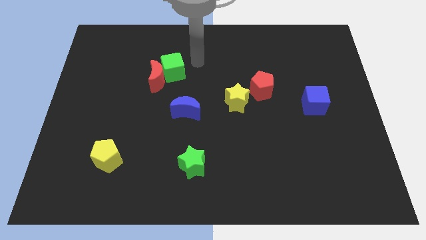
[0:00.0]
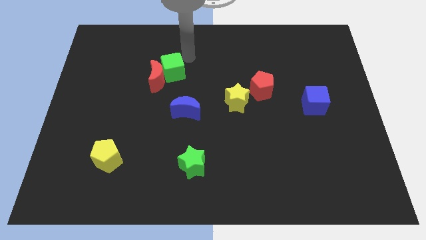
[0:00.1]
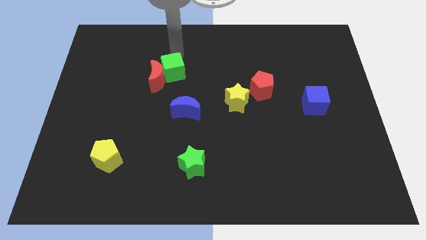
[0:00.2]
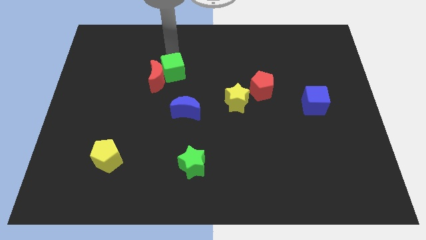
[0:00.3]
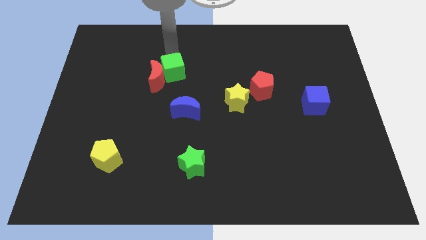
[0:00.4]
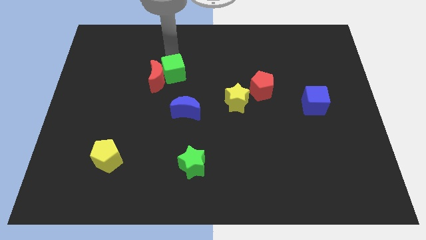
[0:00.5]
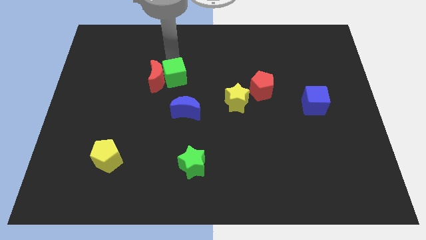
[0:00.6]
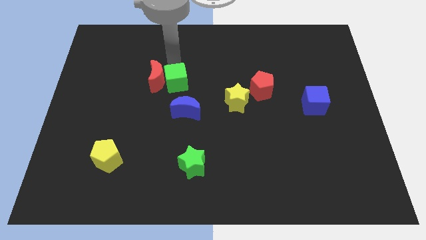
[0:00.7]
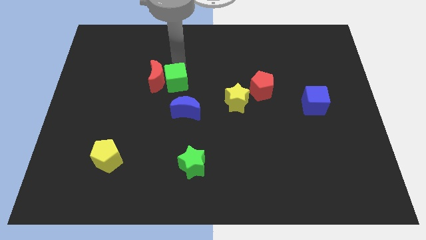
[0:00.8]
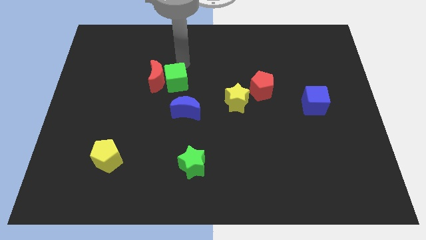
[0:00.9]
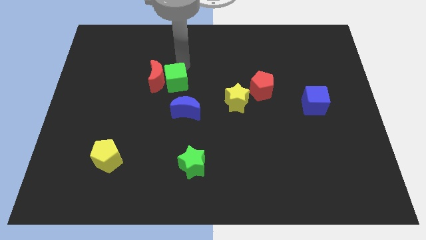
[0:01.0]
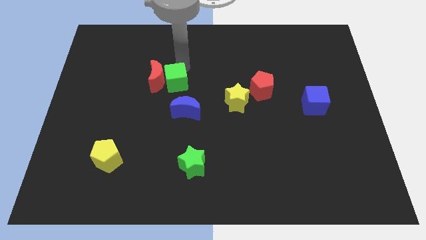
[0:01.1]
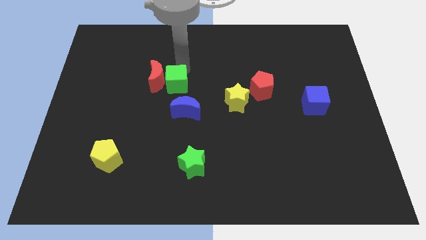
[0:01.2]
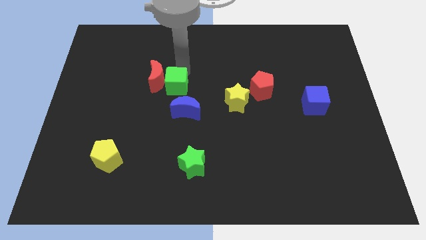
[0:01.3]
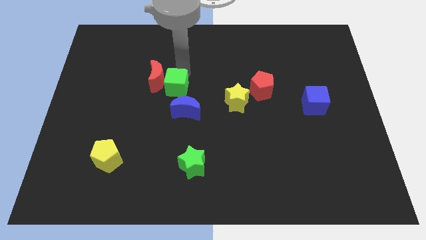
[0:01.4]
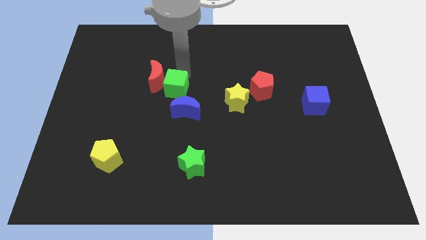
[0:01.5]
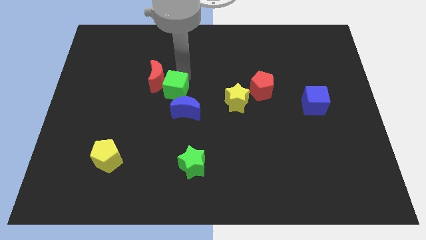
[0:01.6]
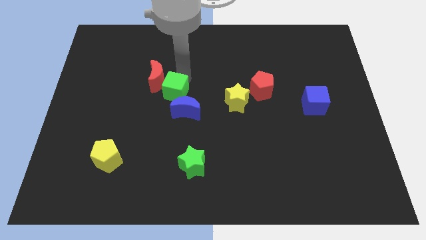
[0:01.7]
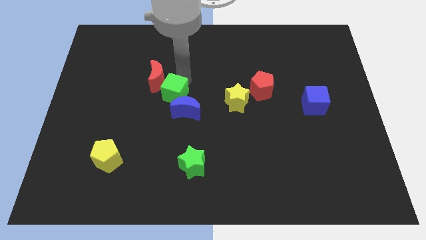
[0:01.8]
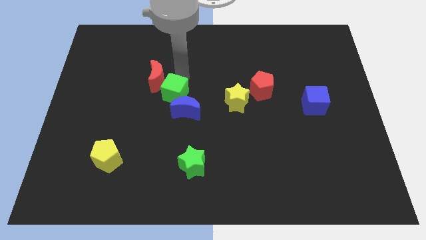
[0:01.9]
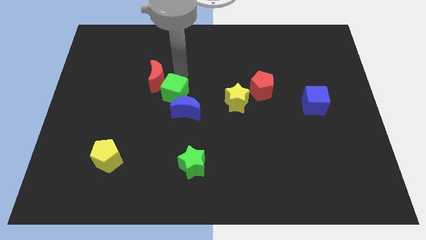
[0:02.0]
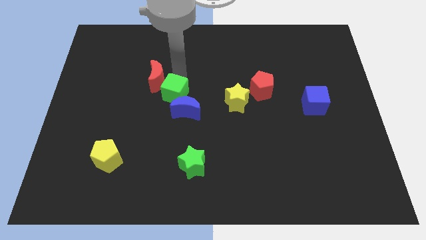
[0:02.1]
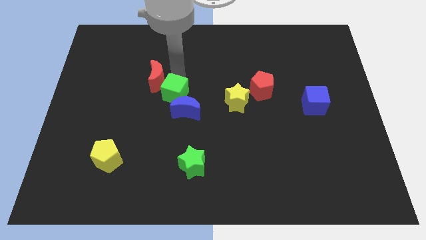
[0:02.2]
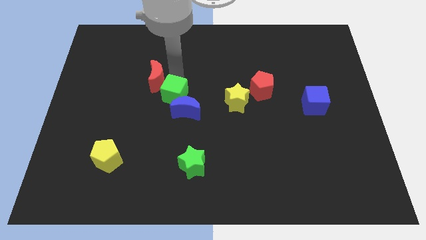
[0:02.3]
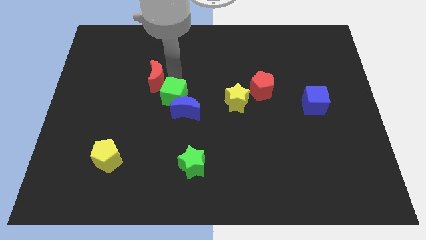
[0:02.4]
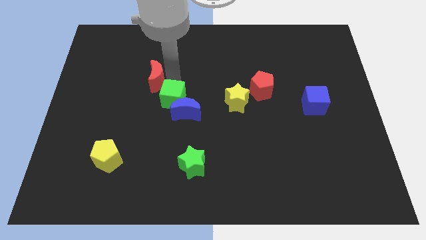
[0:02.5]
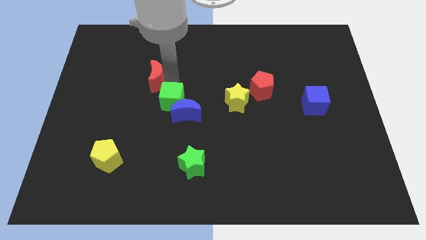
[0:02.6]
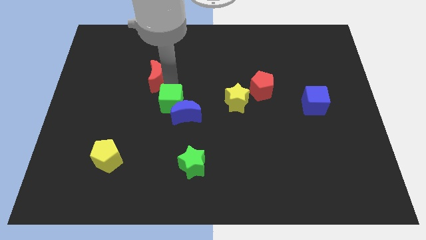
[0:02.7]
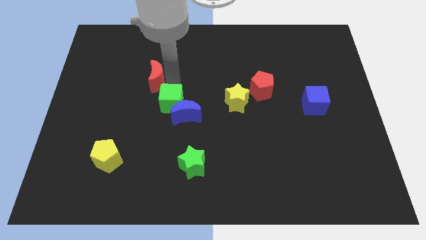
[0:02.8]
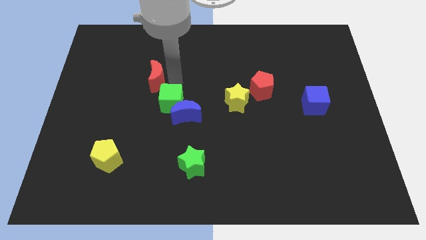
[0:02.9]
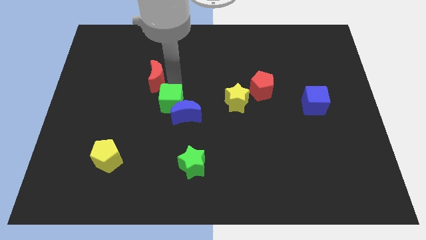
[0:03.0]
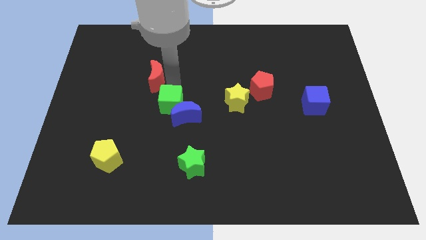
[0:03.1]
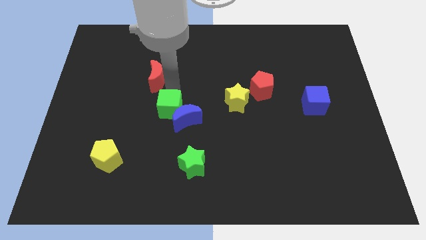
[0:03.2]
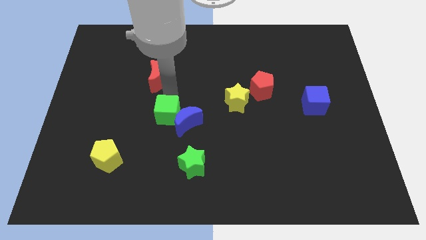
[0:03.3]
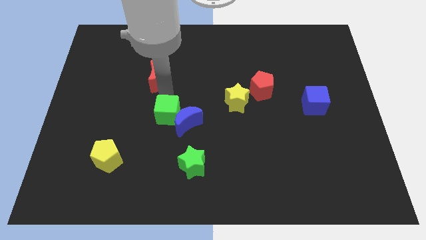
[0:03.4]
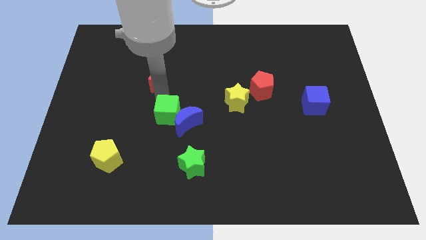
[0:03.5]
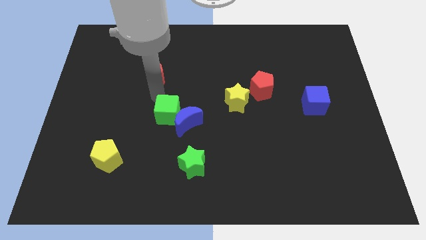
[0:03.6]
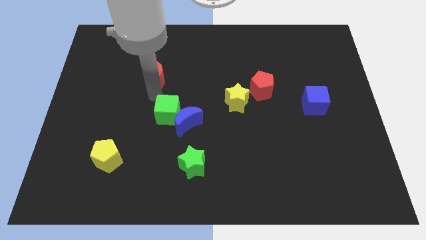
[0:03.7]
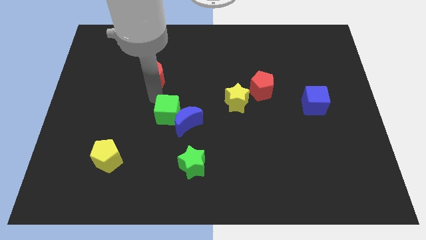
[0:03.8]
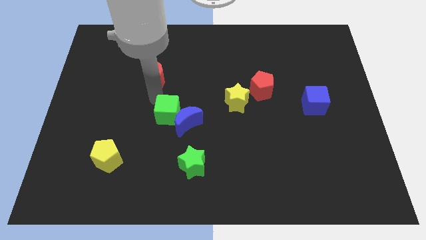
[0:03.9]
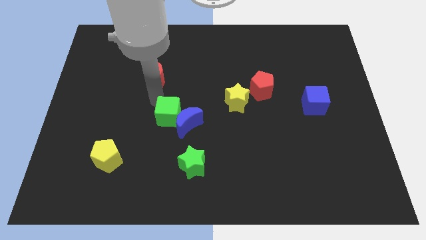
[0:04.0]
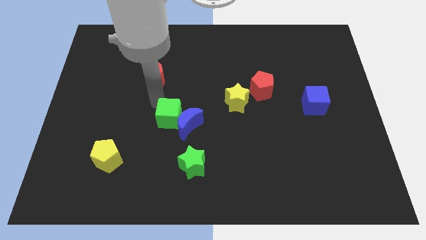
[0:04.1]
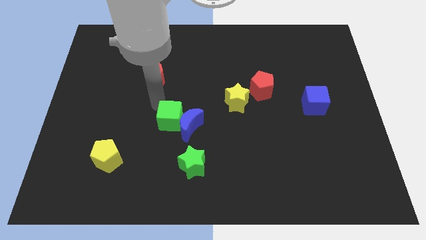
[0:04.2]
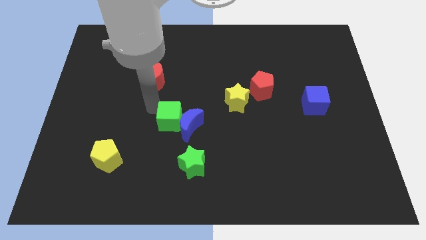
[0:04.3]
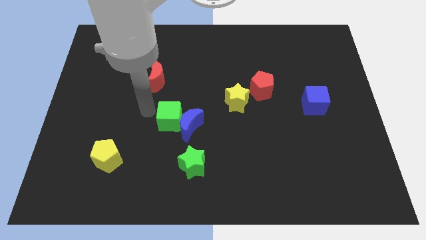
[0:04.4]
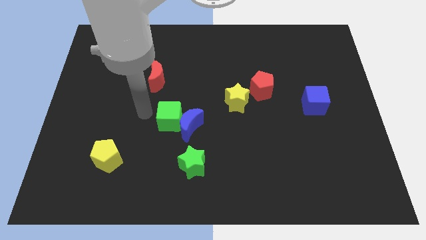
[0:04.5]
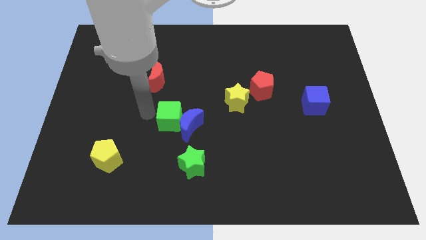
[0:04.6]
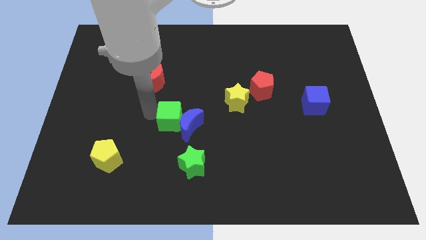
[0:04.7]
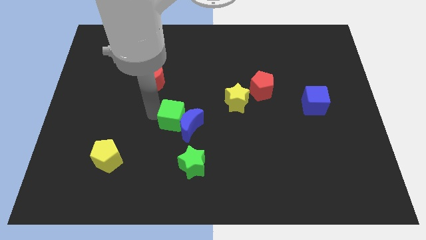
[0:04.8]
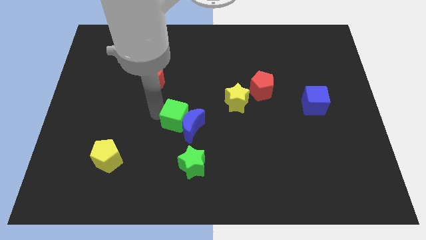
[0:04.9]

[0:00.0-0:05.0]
push the green cube to the top side of the green star

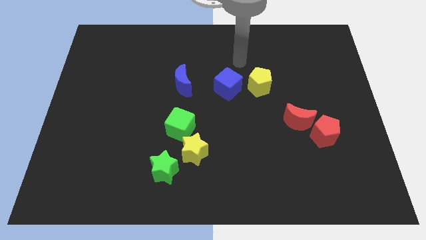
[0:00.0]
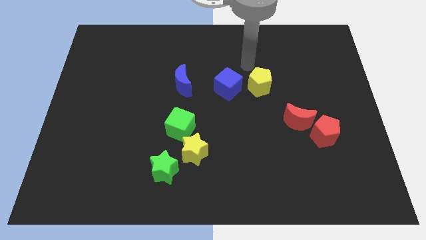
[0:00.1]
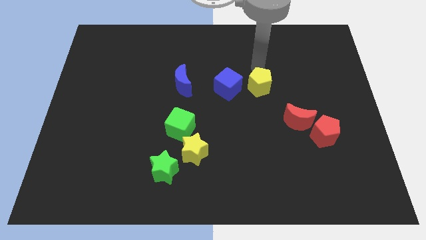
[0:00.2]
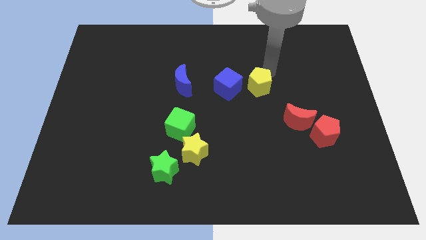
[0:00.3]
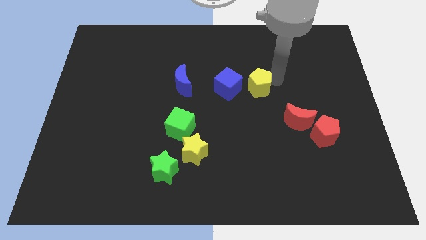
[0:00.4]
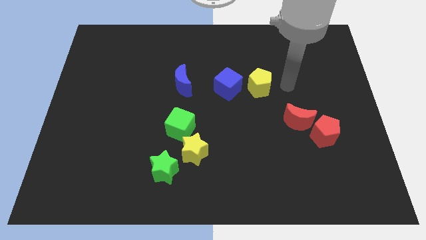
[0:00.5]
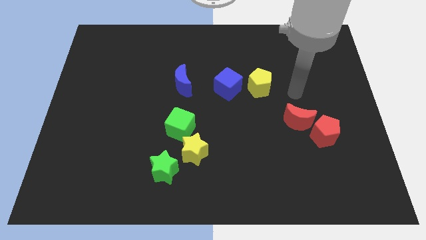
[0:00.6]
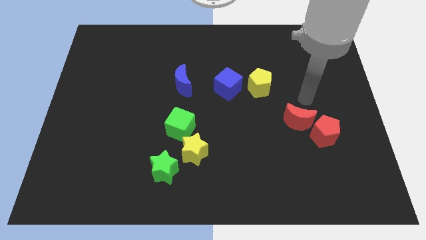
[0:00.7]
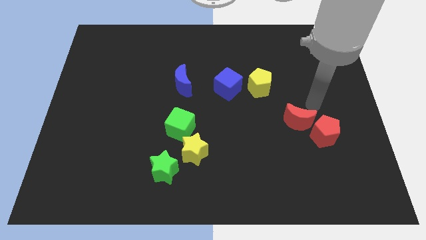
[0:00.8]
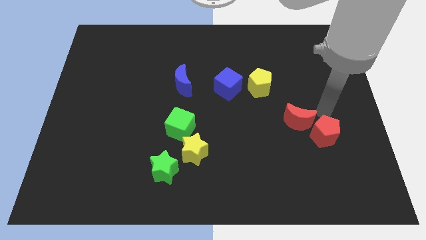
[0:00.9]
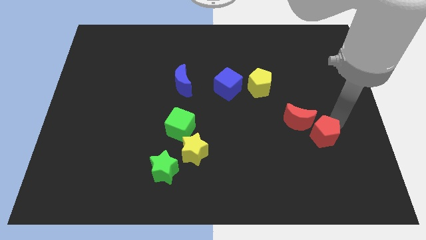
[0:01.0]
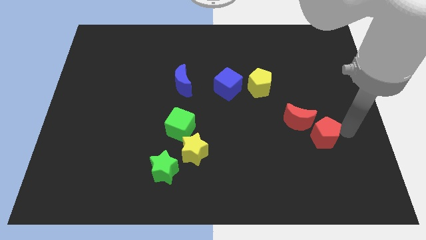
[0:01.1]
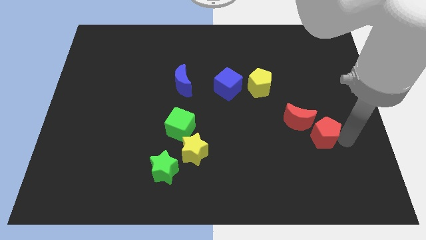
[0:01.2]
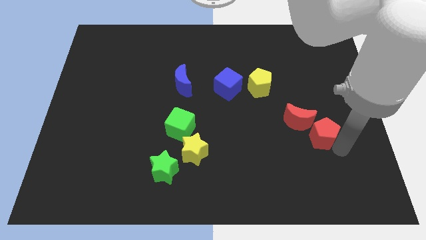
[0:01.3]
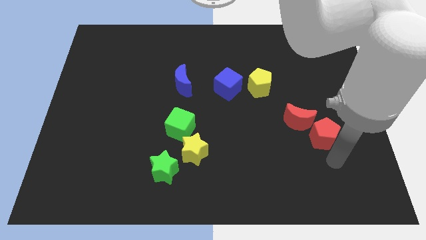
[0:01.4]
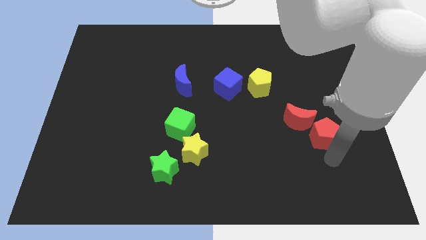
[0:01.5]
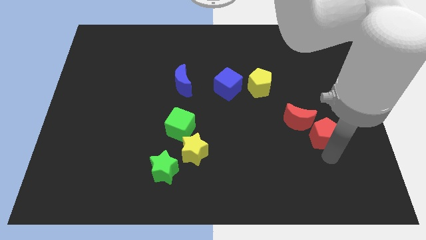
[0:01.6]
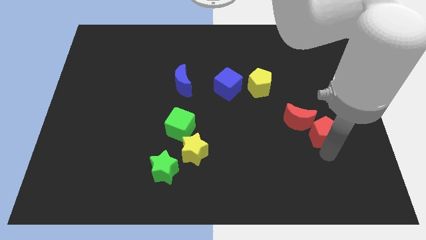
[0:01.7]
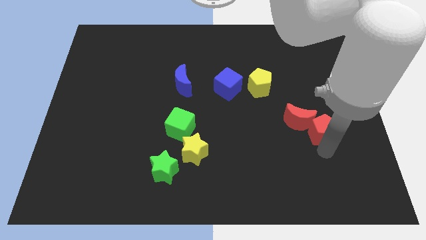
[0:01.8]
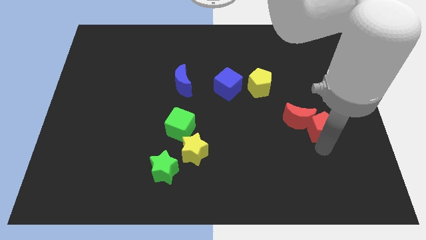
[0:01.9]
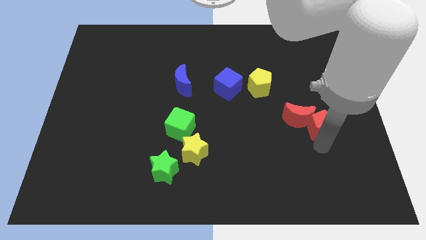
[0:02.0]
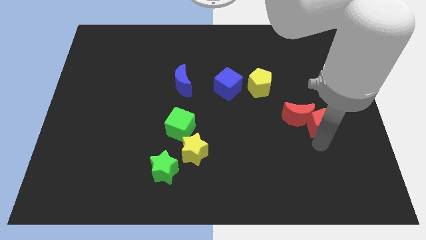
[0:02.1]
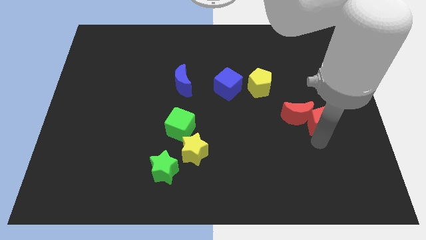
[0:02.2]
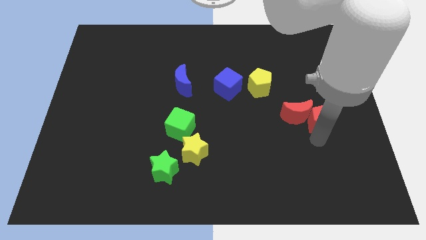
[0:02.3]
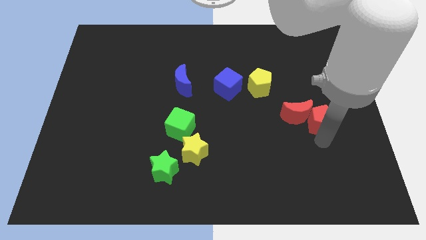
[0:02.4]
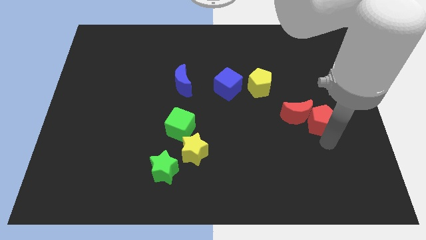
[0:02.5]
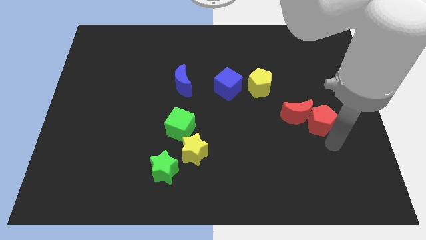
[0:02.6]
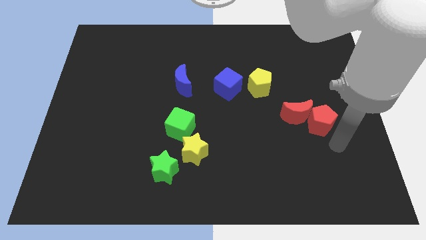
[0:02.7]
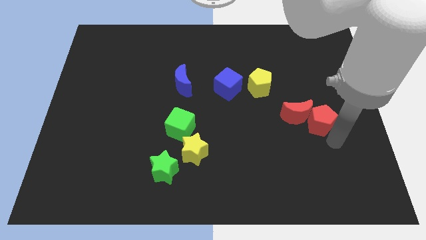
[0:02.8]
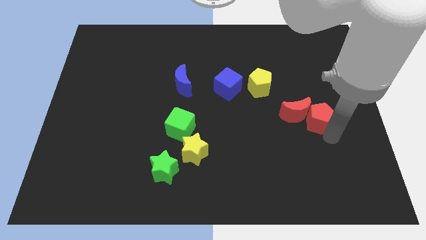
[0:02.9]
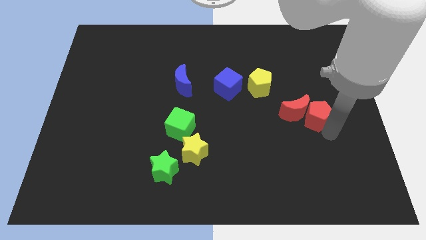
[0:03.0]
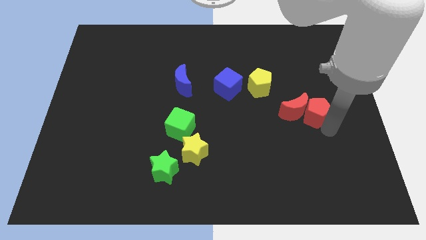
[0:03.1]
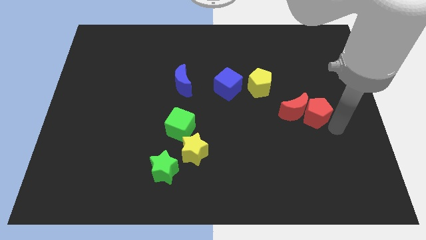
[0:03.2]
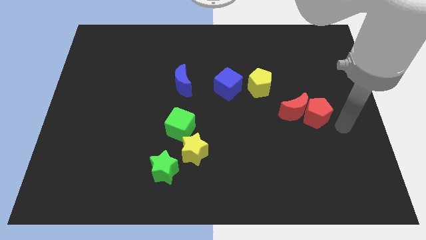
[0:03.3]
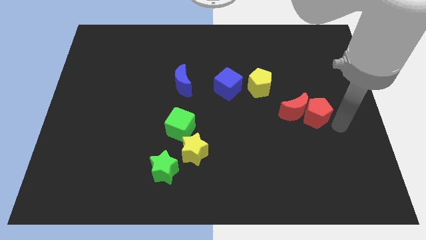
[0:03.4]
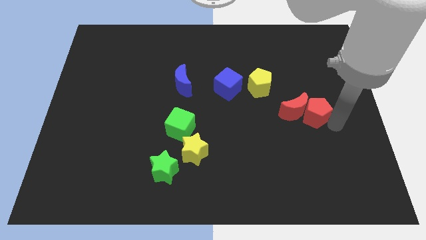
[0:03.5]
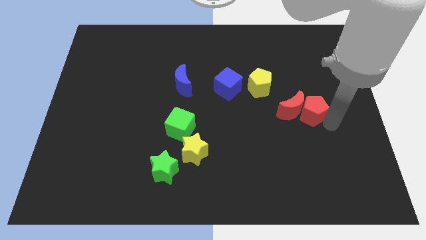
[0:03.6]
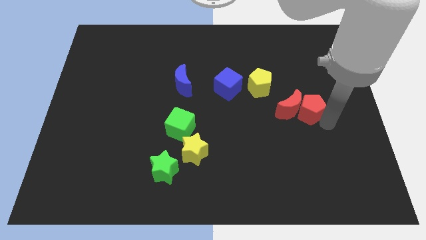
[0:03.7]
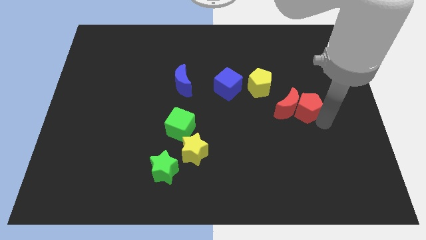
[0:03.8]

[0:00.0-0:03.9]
move the red pentagon to the bottom right of the yellow pentagon
